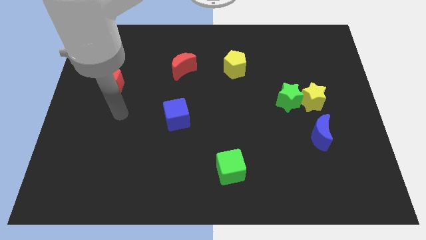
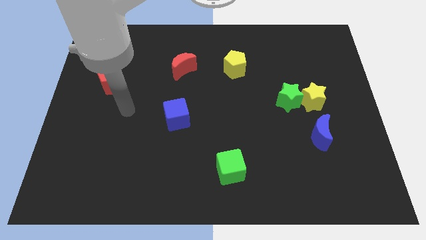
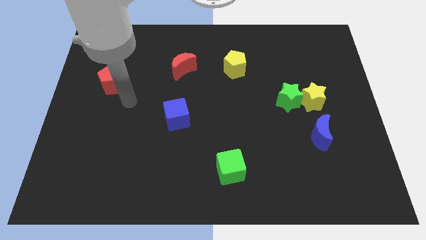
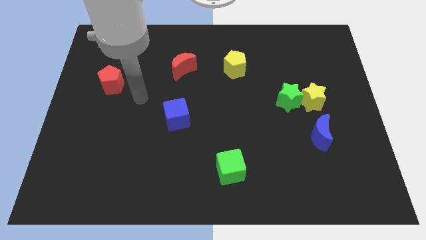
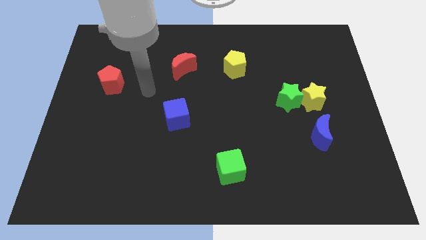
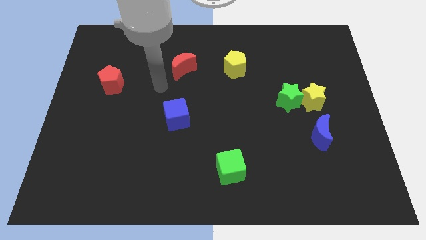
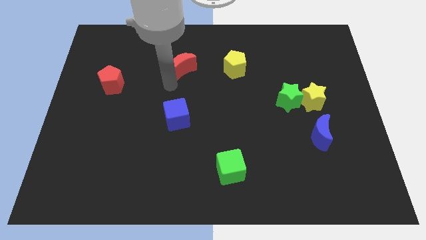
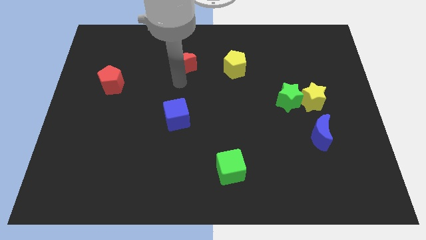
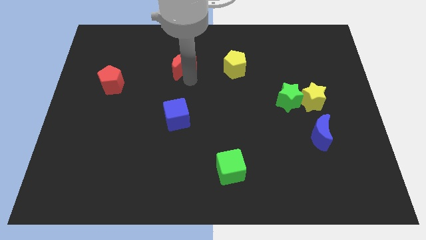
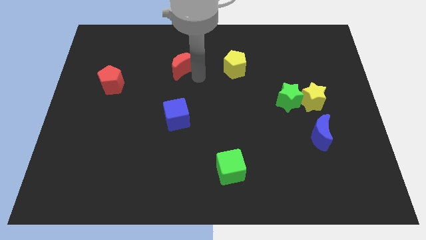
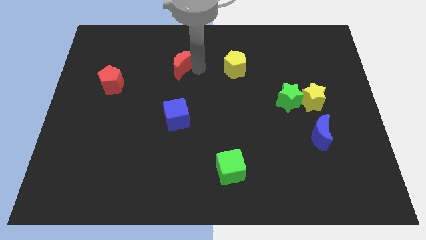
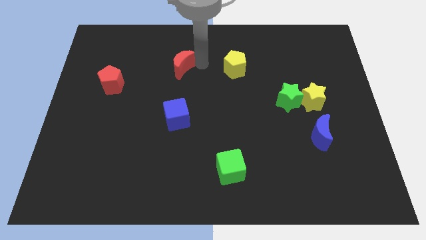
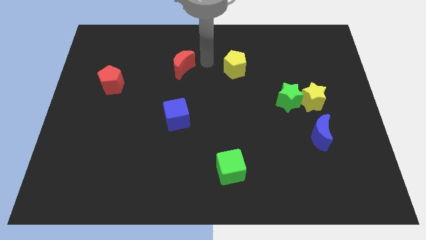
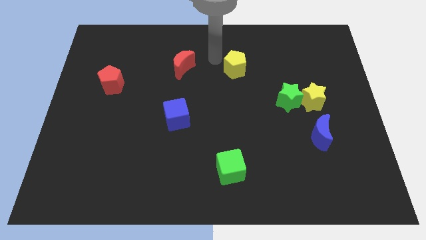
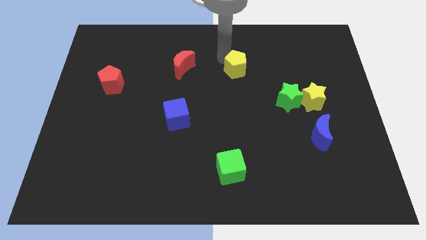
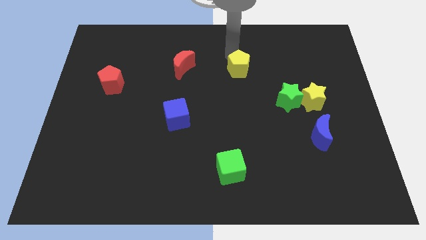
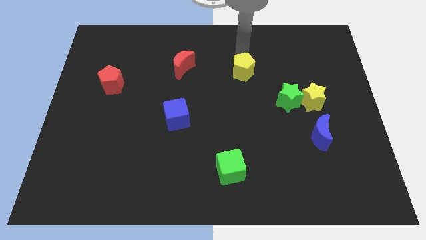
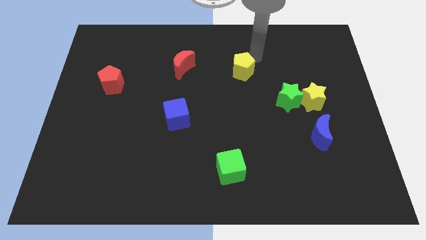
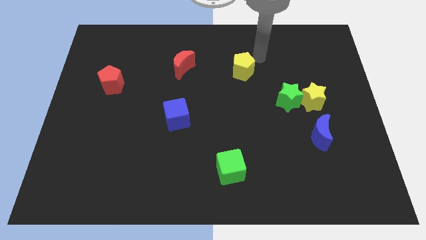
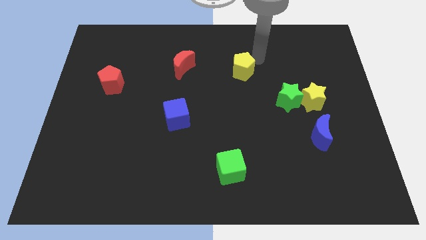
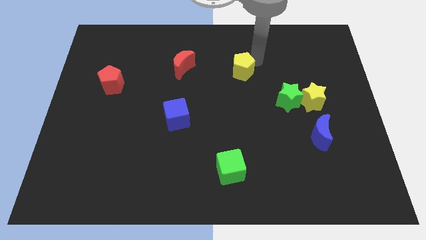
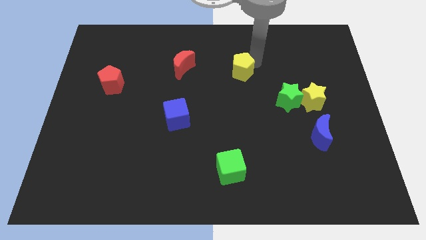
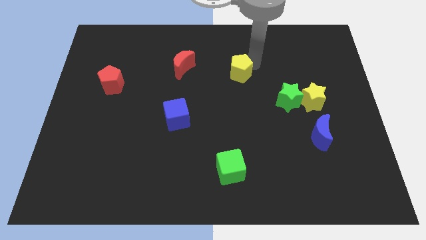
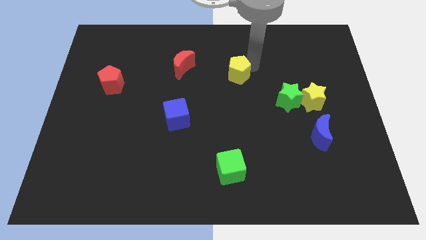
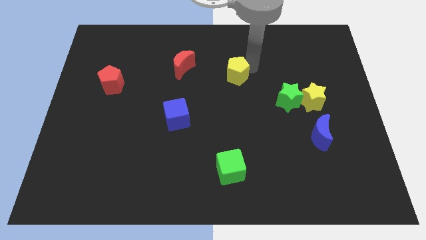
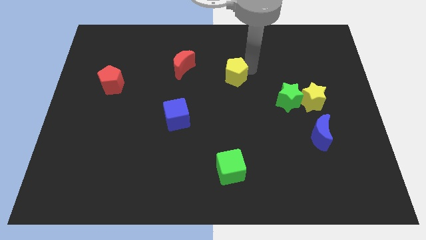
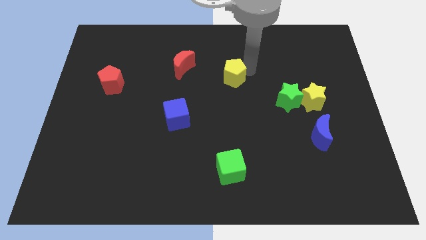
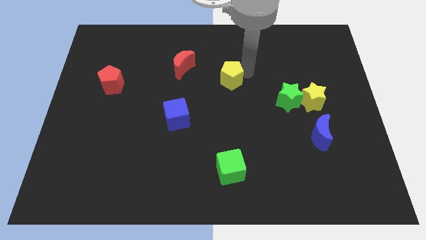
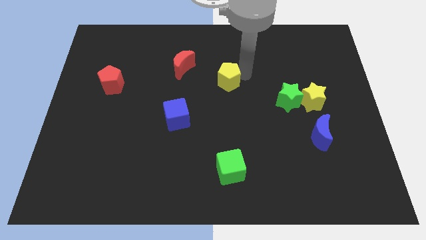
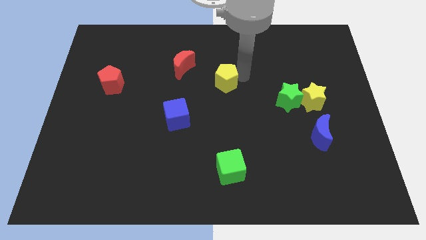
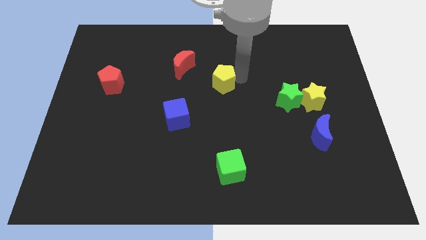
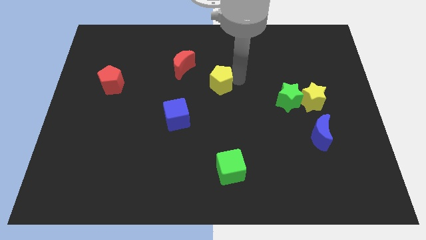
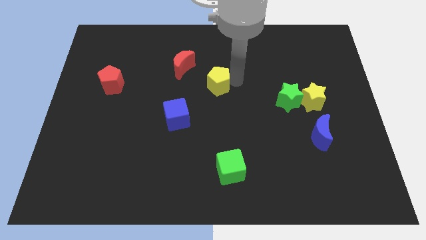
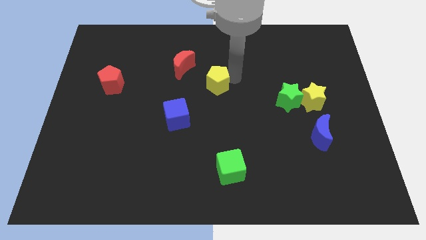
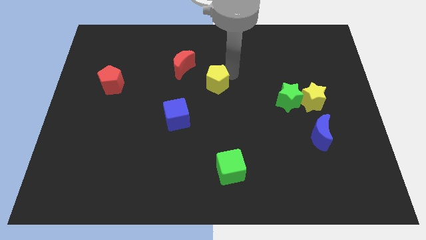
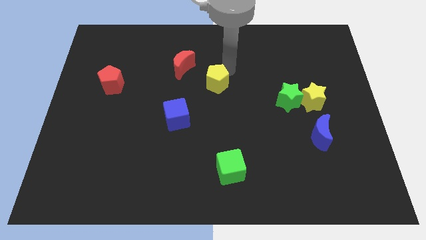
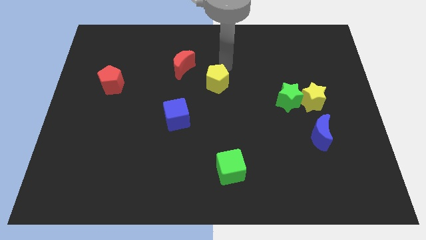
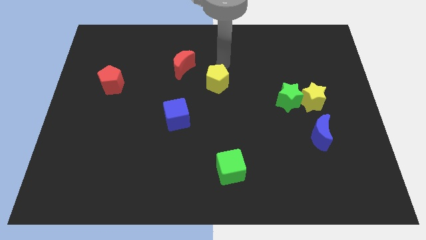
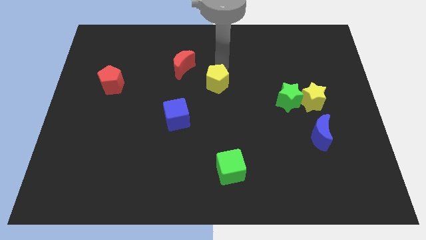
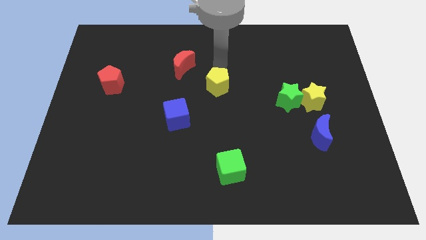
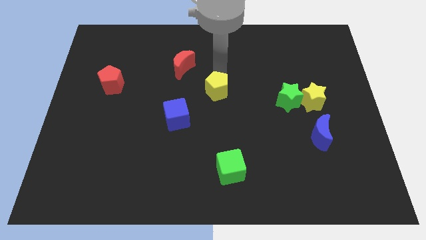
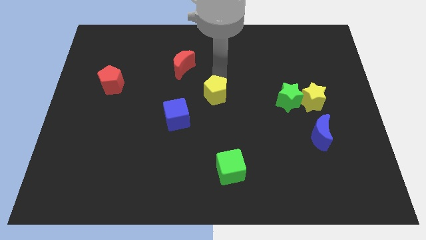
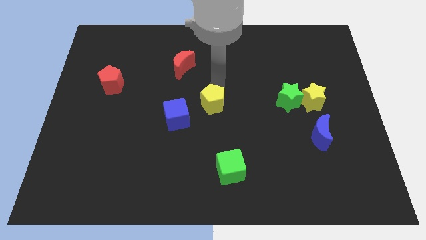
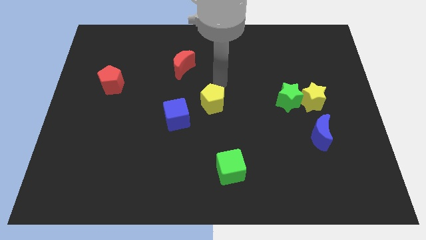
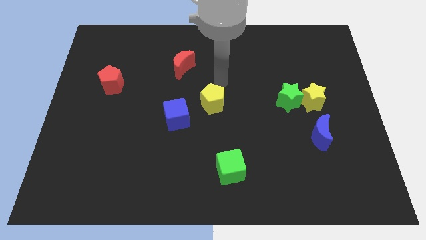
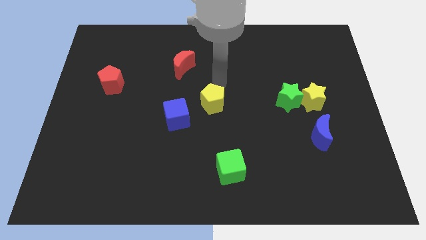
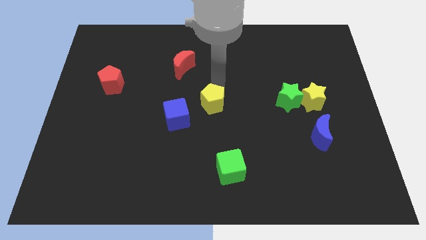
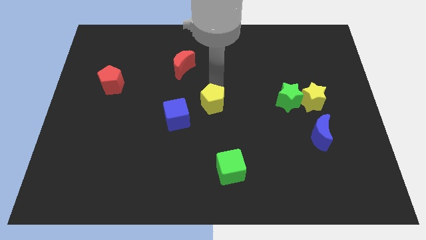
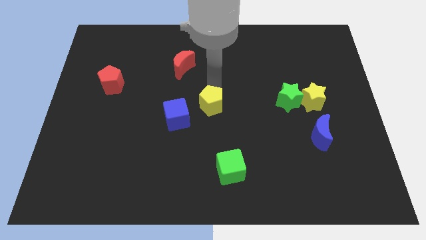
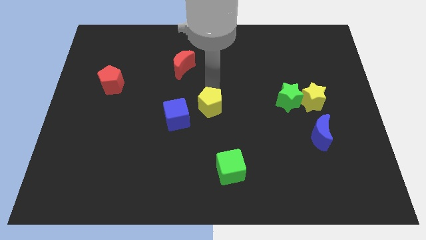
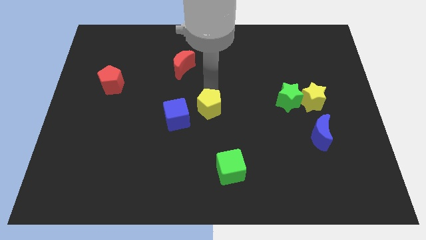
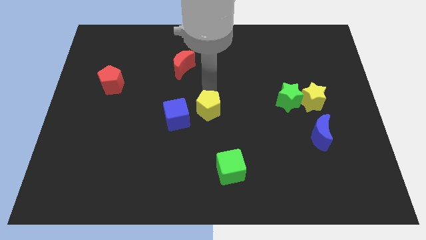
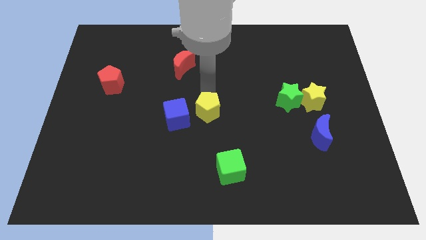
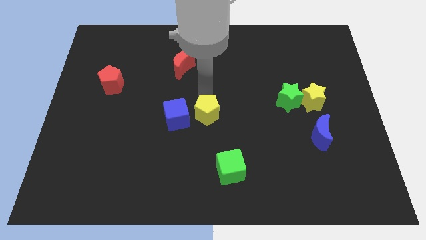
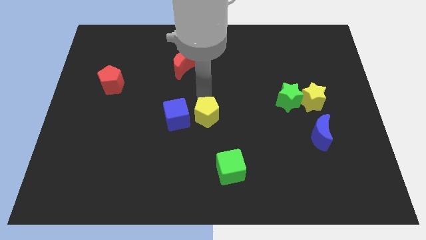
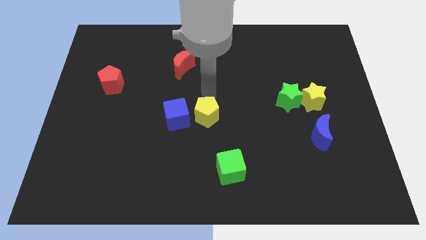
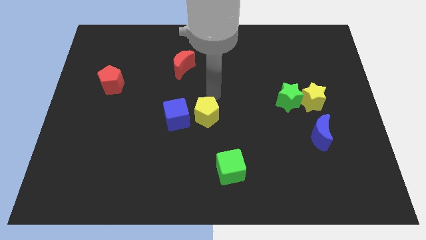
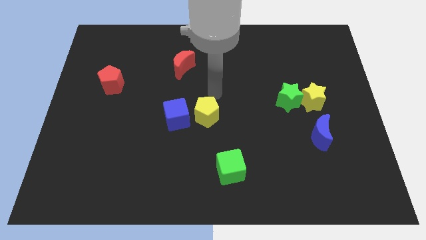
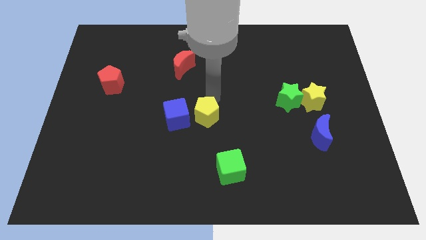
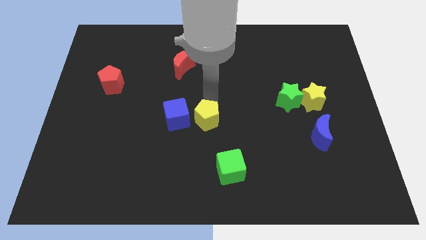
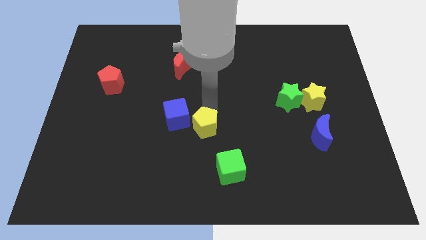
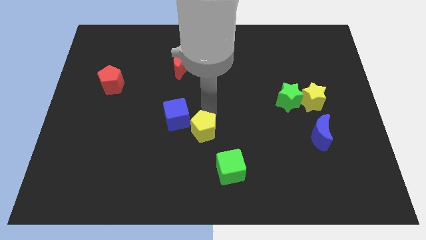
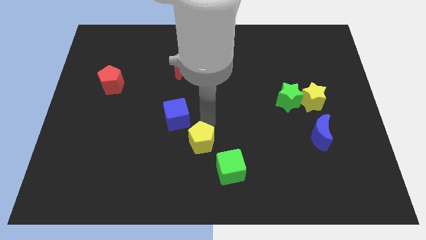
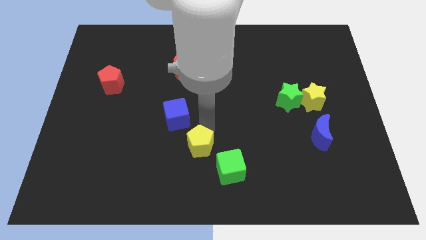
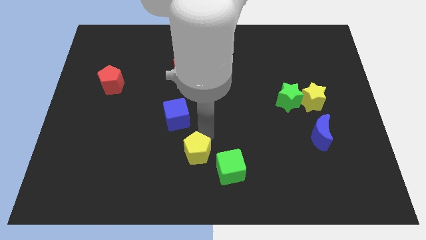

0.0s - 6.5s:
put the yellow pentagon below the blue cube
